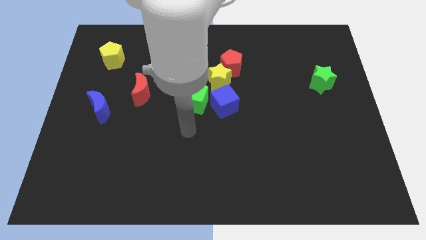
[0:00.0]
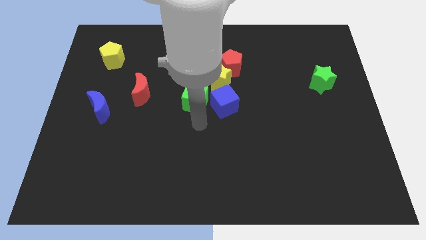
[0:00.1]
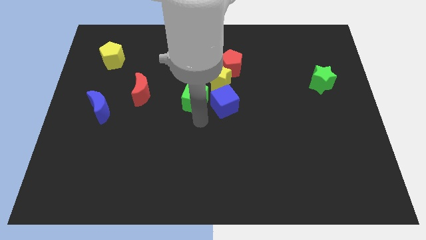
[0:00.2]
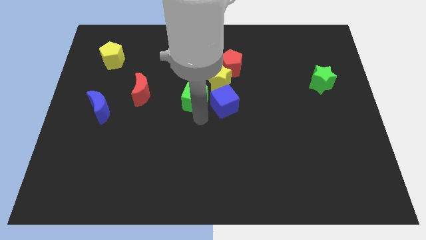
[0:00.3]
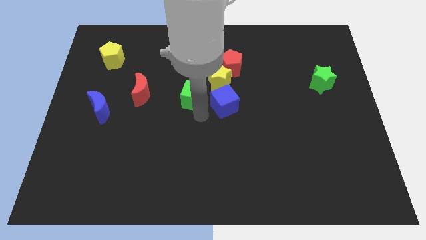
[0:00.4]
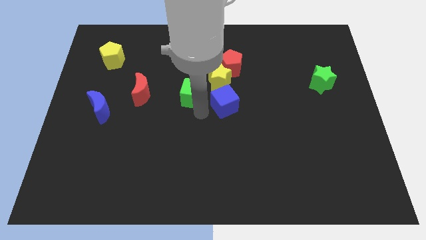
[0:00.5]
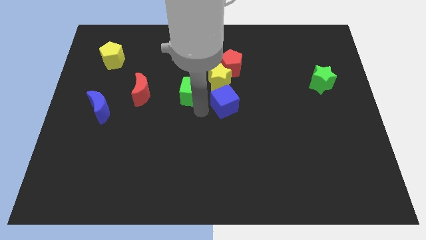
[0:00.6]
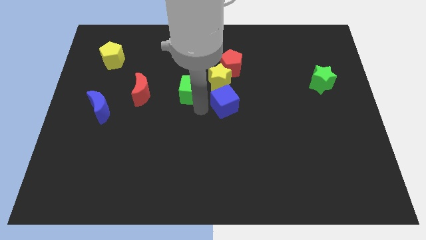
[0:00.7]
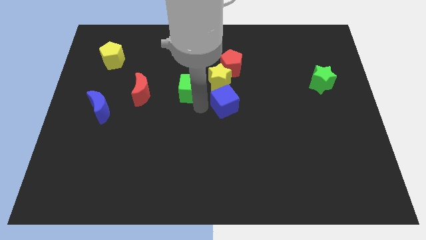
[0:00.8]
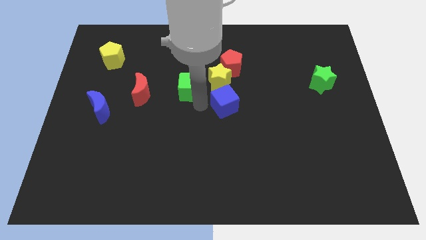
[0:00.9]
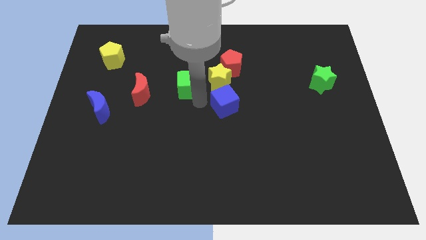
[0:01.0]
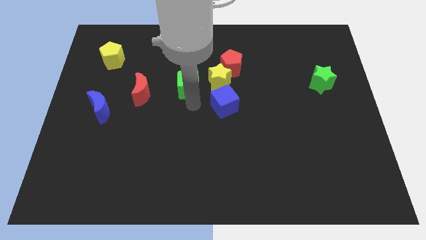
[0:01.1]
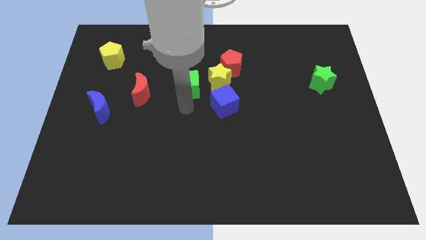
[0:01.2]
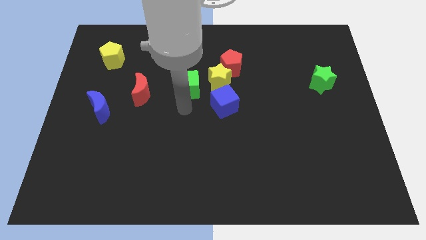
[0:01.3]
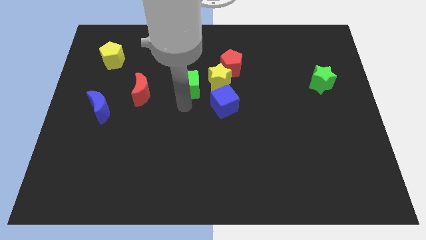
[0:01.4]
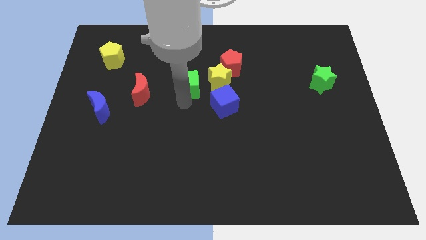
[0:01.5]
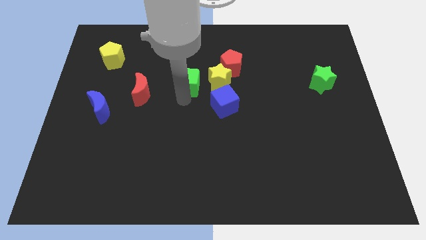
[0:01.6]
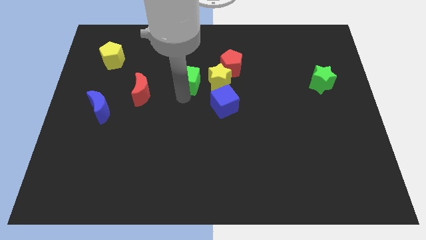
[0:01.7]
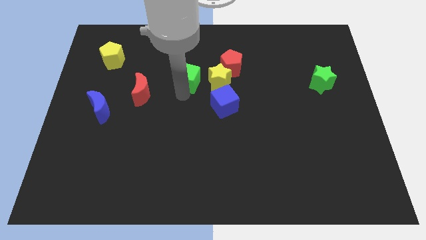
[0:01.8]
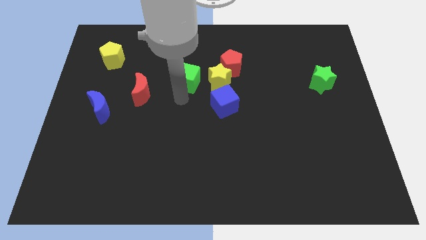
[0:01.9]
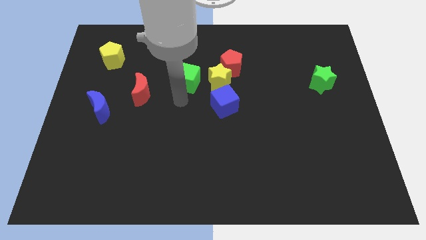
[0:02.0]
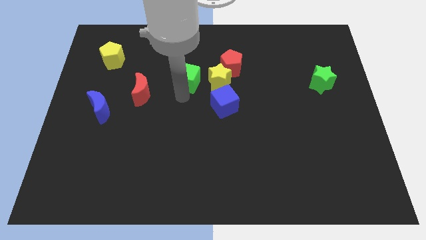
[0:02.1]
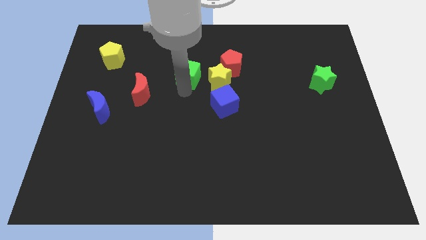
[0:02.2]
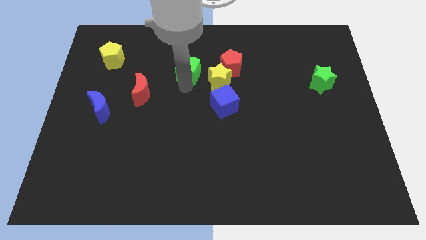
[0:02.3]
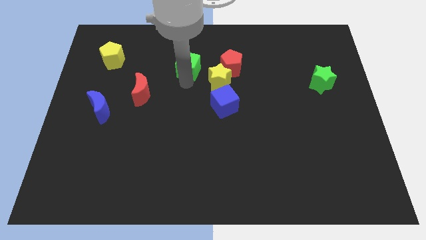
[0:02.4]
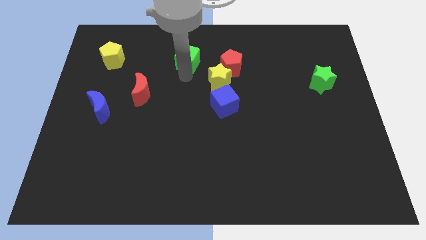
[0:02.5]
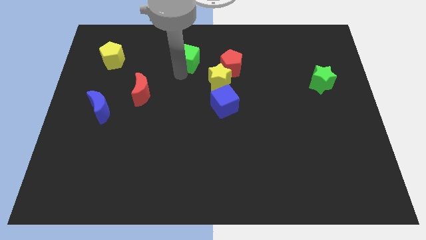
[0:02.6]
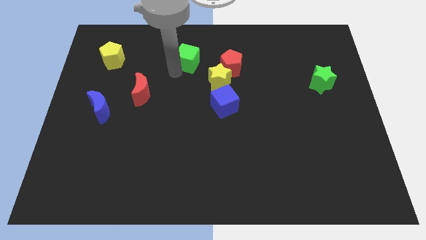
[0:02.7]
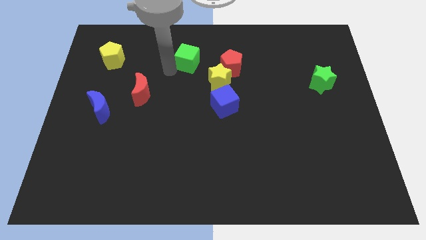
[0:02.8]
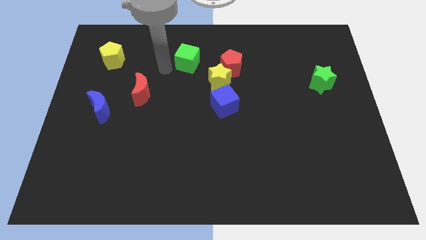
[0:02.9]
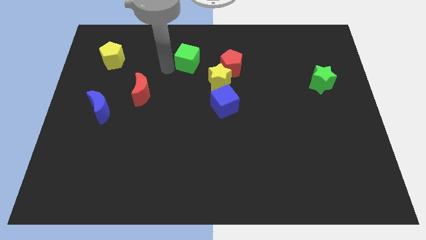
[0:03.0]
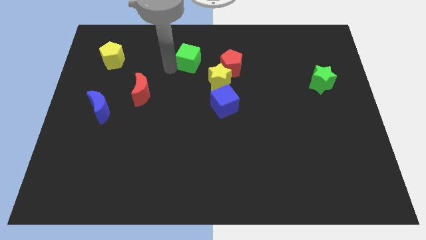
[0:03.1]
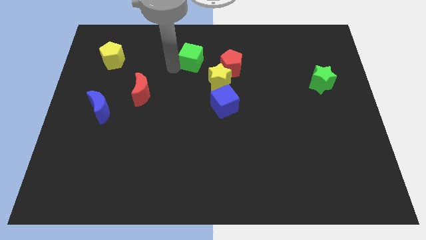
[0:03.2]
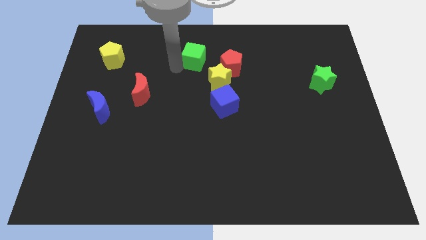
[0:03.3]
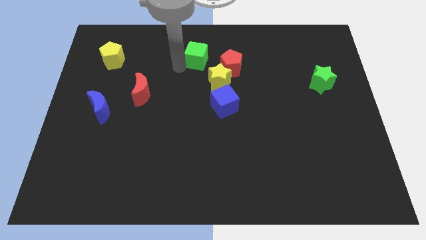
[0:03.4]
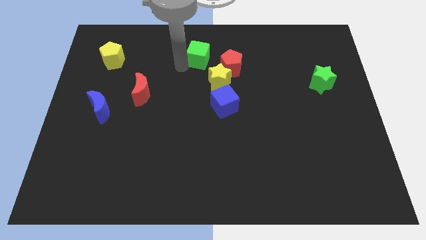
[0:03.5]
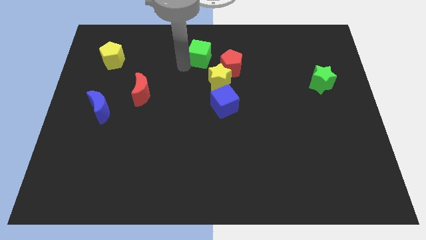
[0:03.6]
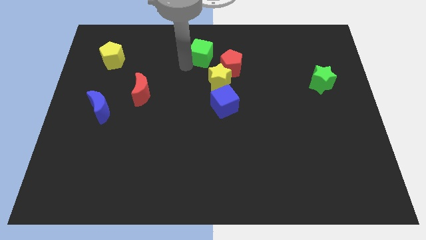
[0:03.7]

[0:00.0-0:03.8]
slide the green cube a little bit upwards and to the right diagonally

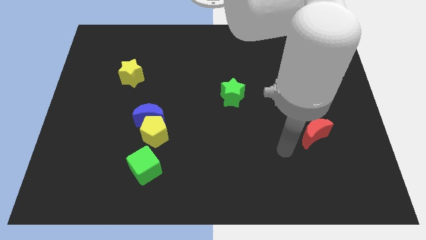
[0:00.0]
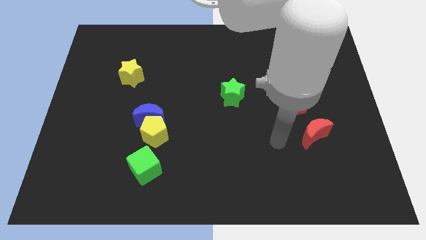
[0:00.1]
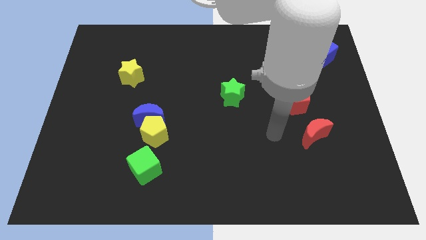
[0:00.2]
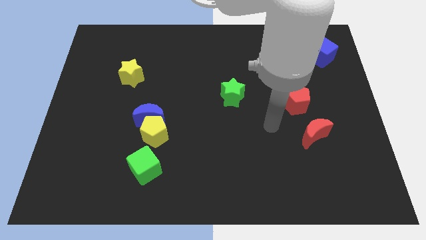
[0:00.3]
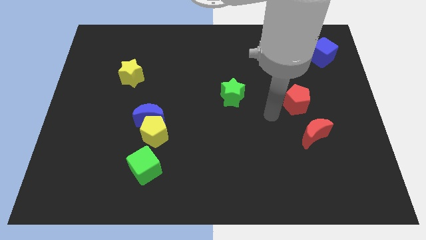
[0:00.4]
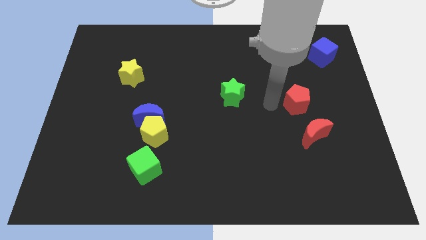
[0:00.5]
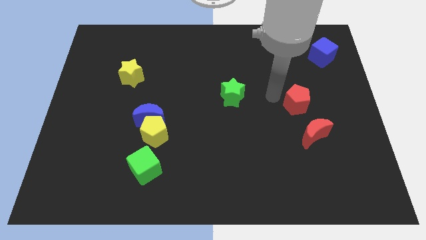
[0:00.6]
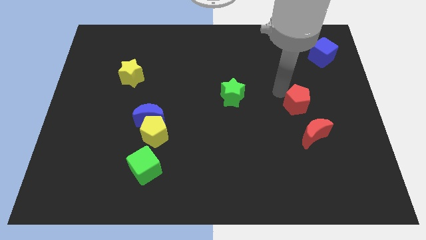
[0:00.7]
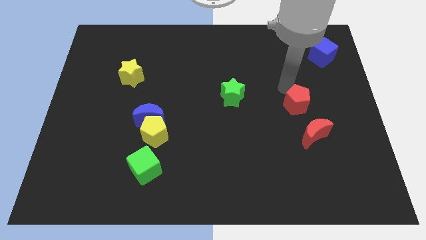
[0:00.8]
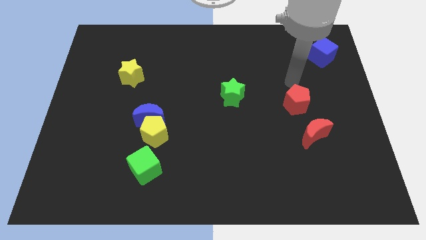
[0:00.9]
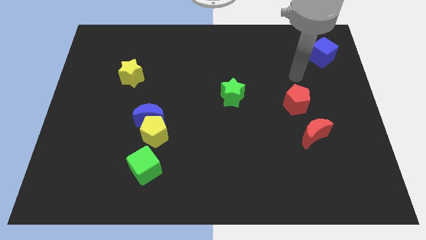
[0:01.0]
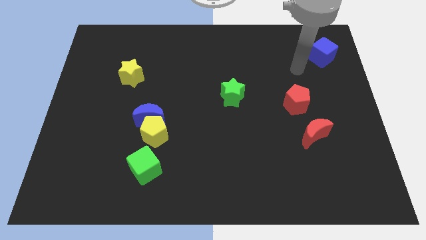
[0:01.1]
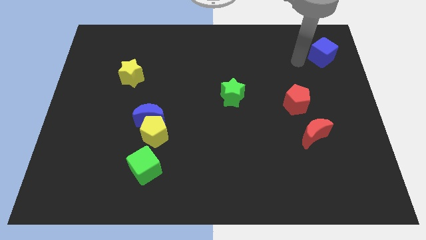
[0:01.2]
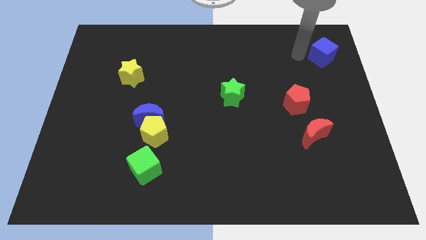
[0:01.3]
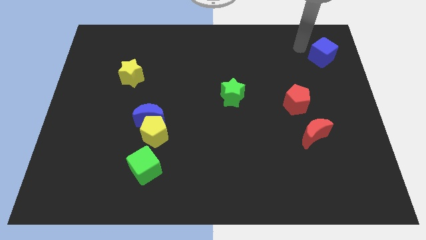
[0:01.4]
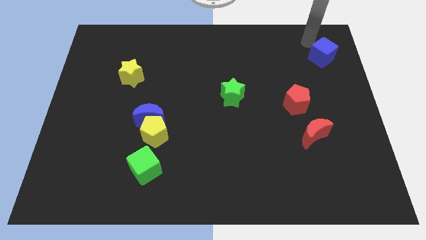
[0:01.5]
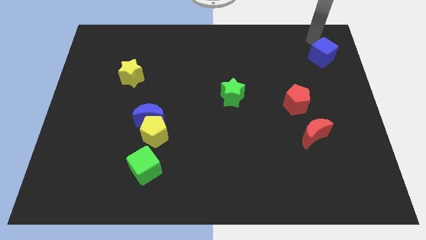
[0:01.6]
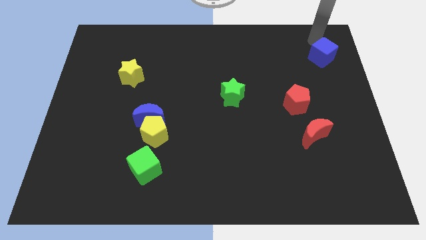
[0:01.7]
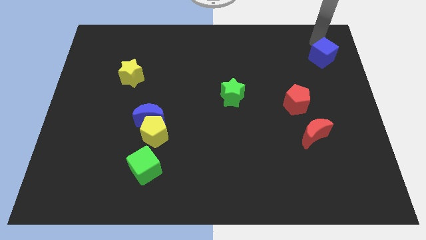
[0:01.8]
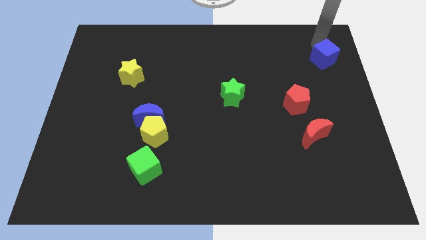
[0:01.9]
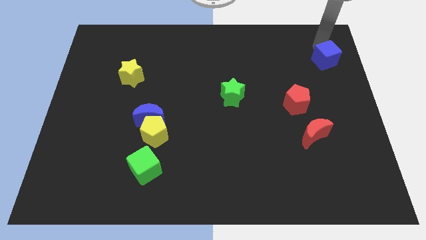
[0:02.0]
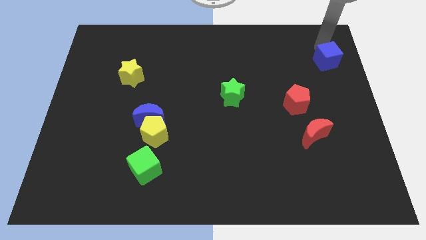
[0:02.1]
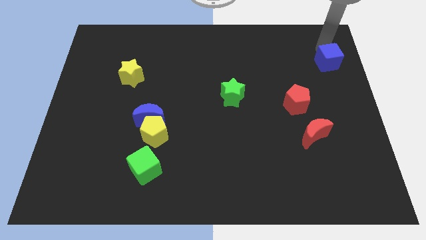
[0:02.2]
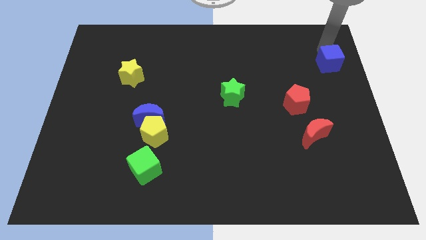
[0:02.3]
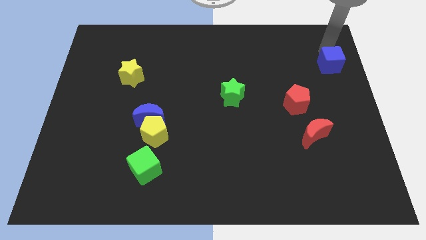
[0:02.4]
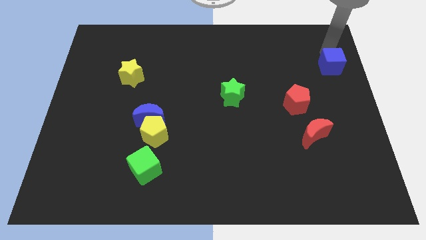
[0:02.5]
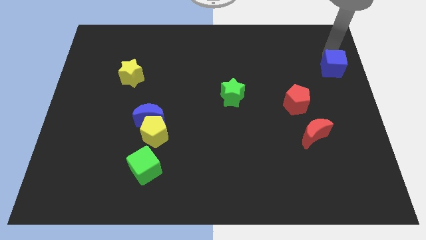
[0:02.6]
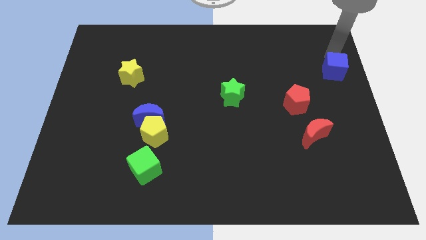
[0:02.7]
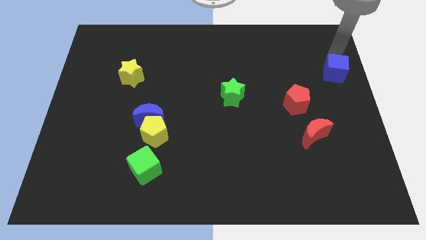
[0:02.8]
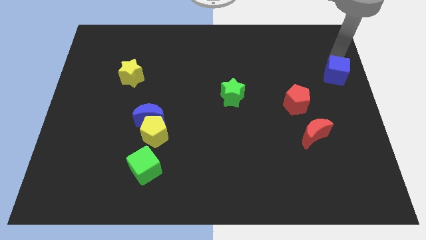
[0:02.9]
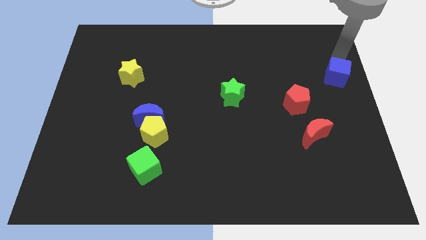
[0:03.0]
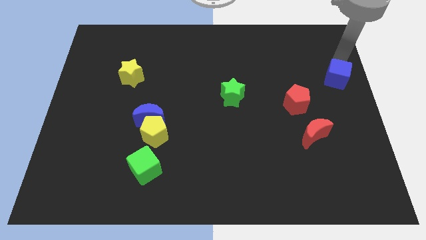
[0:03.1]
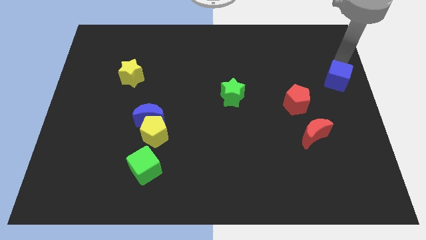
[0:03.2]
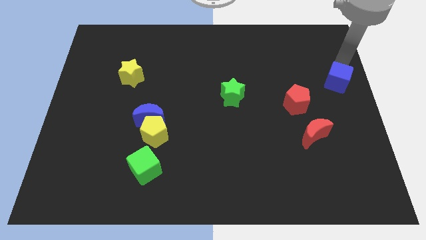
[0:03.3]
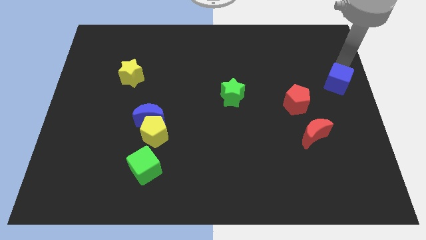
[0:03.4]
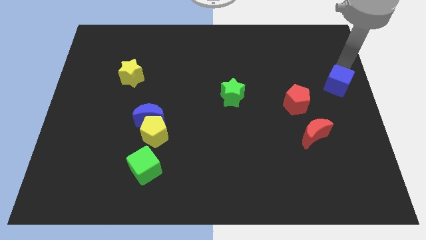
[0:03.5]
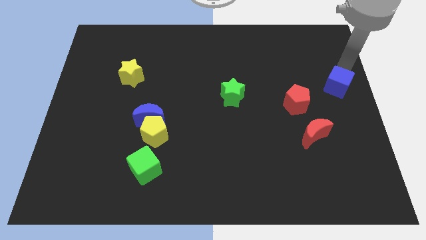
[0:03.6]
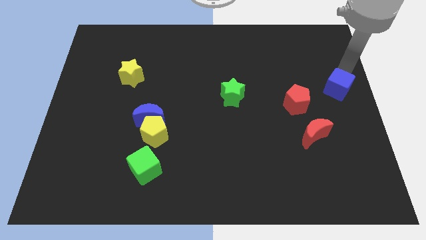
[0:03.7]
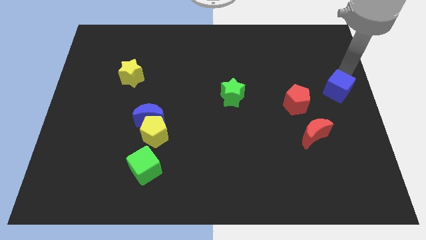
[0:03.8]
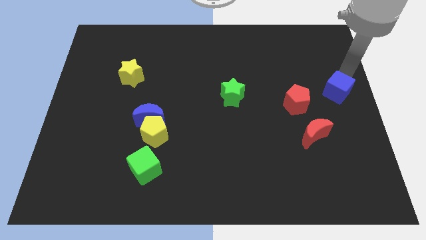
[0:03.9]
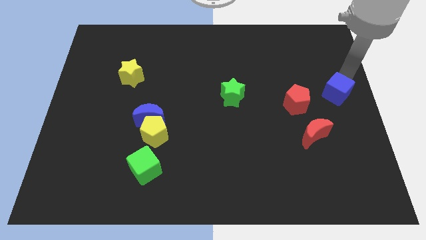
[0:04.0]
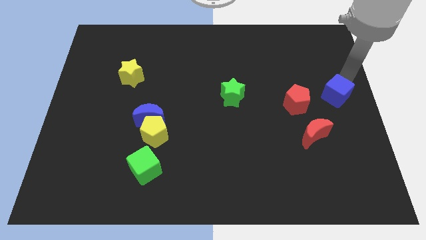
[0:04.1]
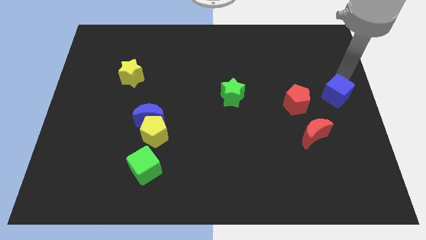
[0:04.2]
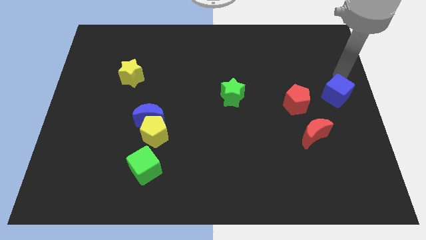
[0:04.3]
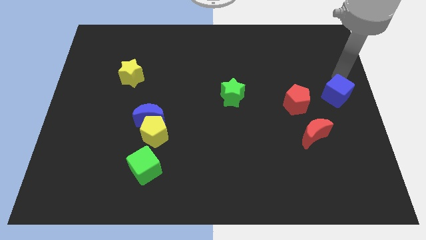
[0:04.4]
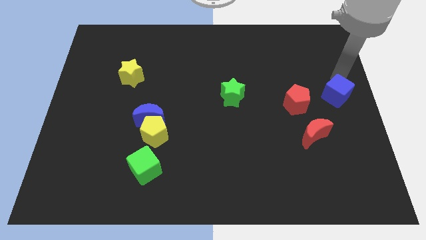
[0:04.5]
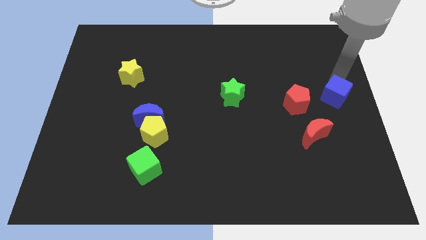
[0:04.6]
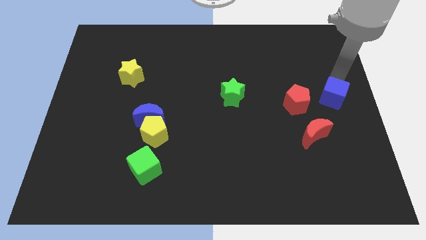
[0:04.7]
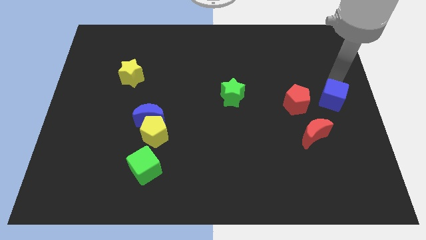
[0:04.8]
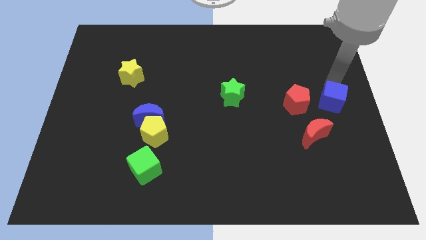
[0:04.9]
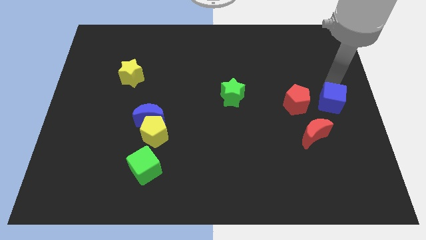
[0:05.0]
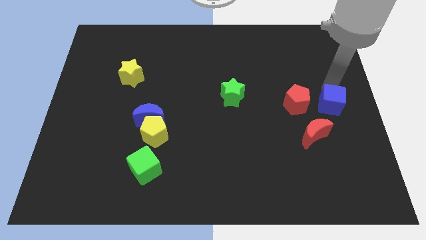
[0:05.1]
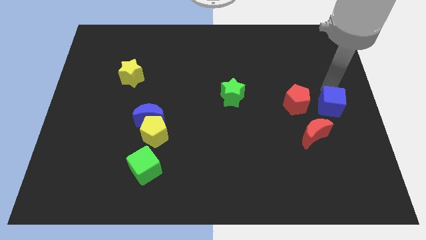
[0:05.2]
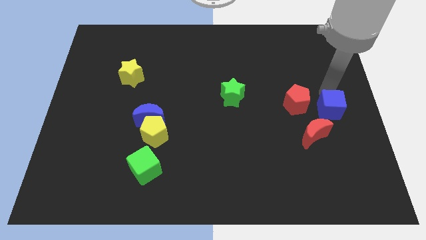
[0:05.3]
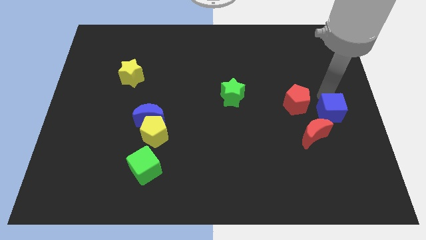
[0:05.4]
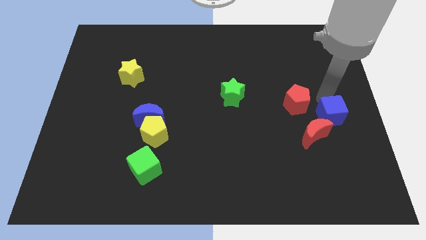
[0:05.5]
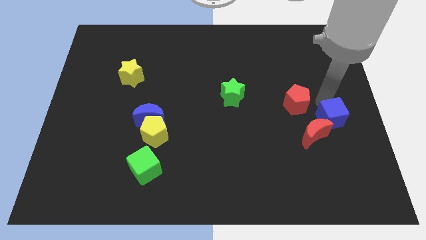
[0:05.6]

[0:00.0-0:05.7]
move the blue cube downwards
